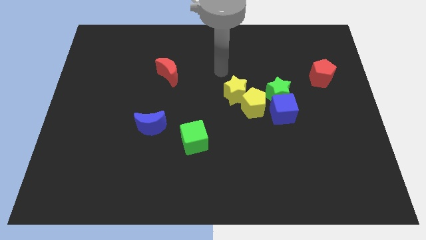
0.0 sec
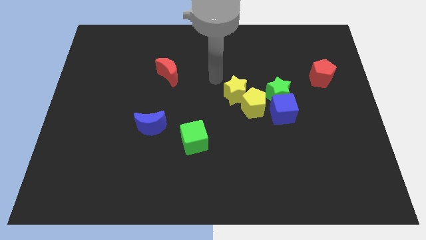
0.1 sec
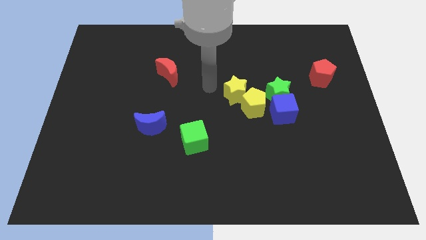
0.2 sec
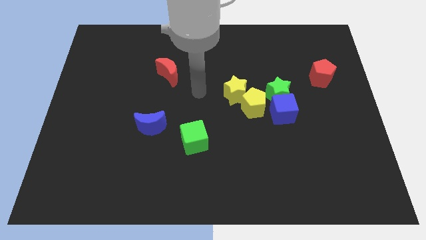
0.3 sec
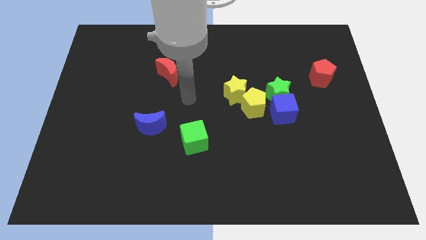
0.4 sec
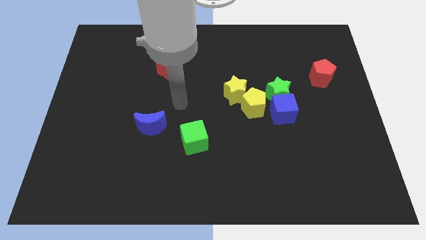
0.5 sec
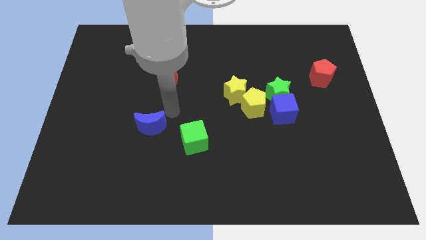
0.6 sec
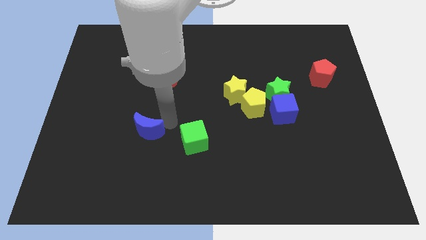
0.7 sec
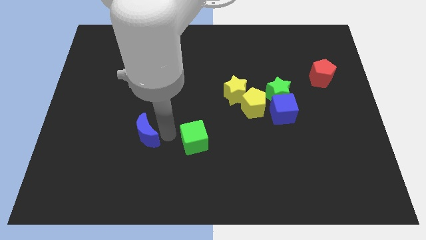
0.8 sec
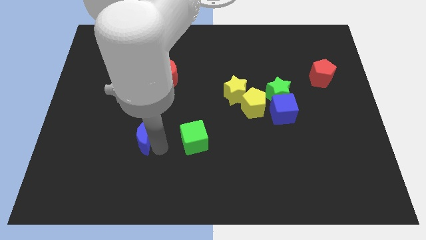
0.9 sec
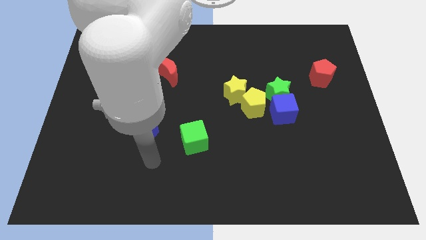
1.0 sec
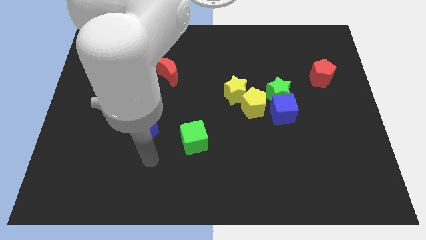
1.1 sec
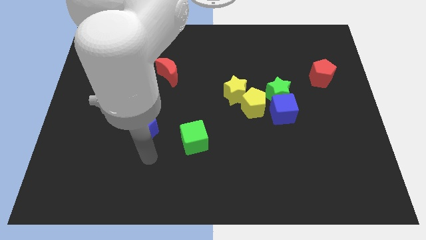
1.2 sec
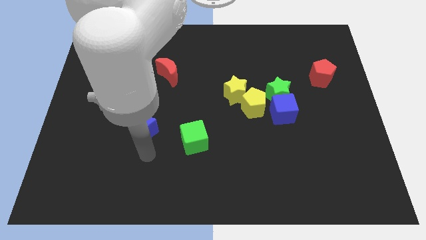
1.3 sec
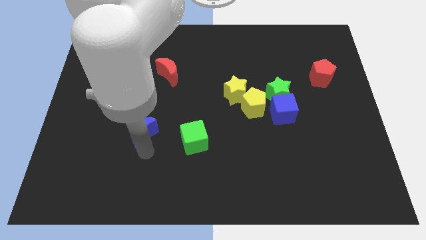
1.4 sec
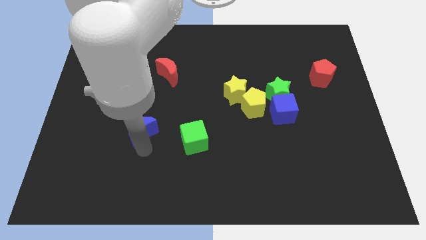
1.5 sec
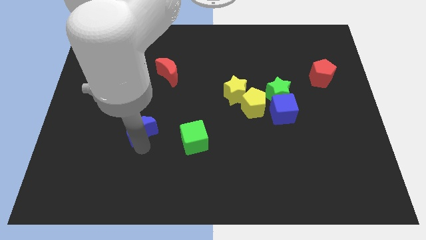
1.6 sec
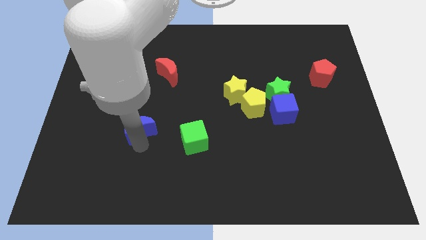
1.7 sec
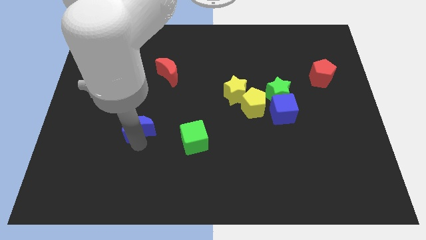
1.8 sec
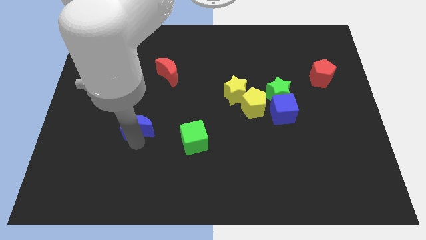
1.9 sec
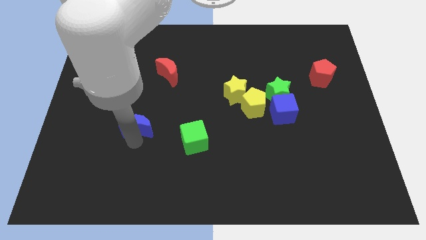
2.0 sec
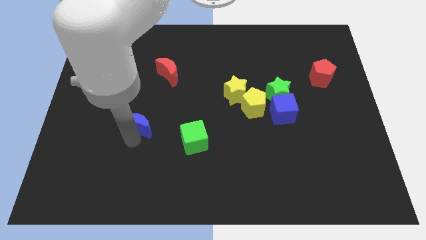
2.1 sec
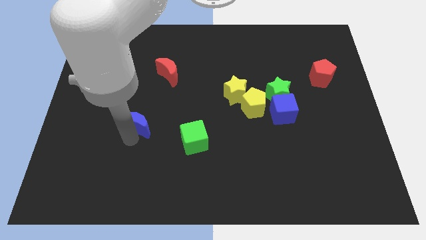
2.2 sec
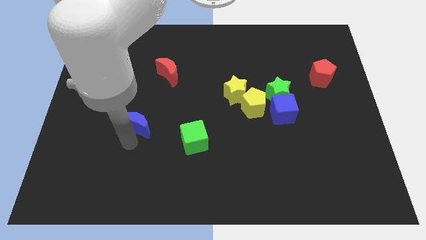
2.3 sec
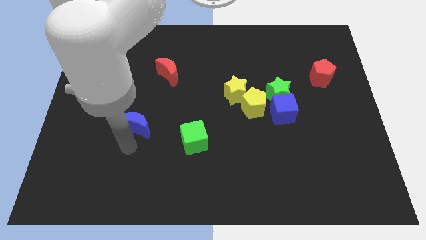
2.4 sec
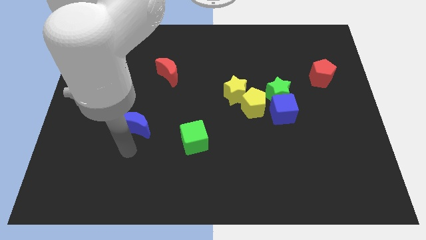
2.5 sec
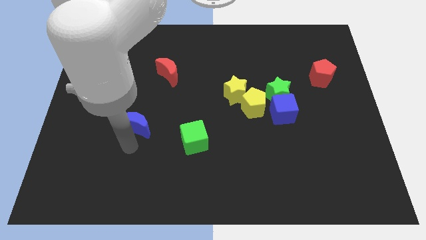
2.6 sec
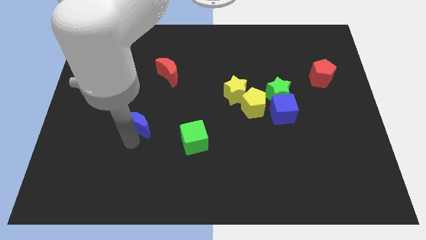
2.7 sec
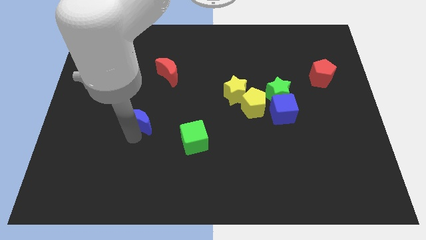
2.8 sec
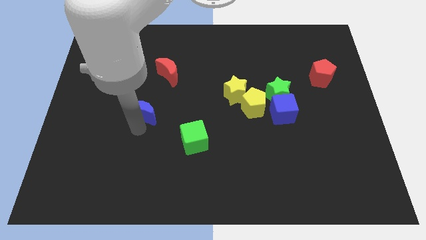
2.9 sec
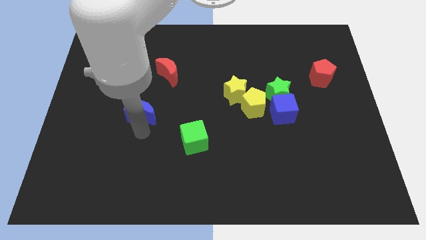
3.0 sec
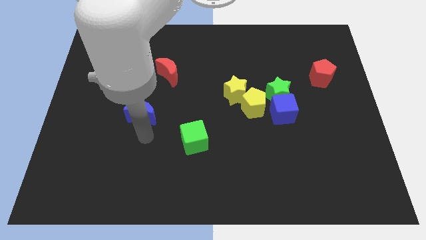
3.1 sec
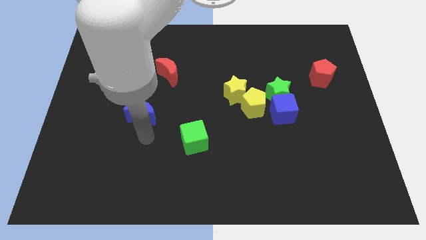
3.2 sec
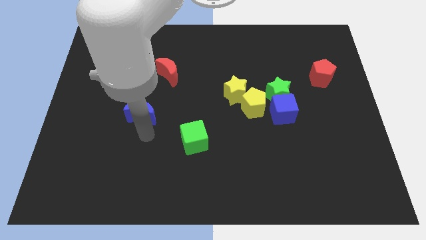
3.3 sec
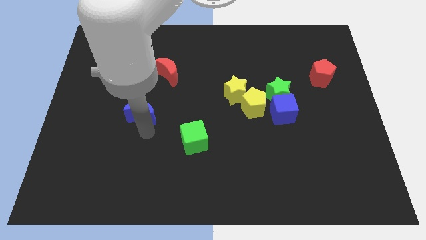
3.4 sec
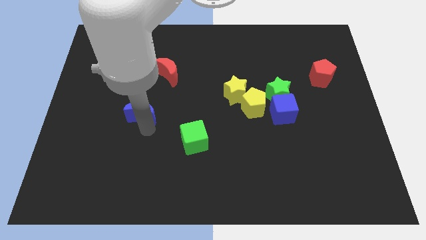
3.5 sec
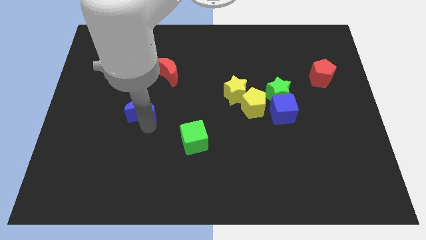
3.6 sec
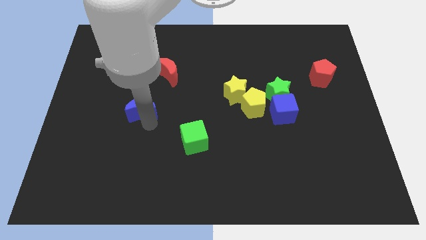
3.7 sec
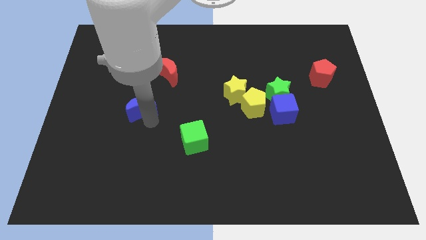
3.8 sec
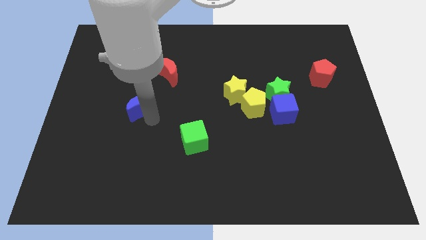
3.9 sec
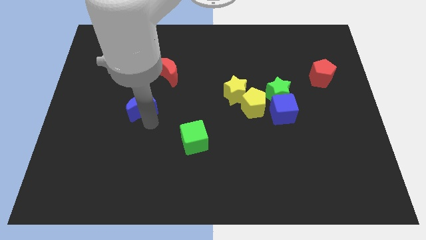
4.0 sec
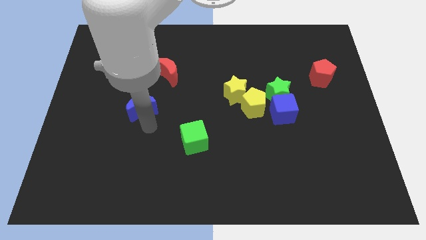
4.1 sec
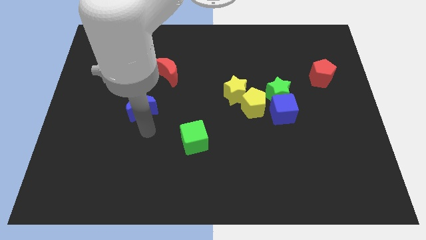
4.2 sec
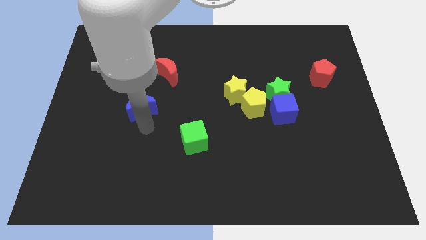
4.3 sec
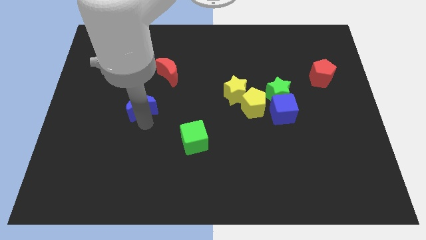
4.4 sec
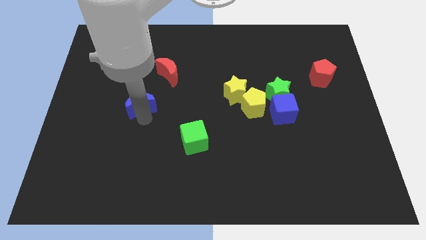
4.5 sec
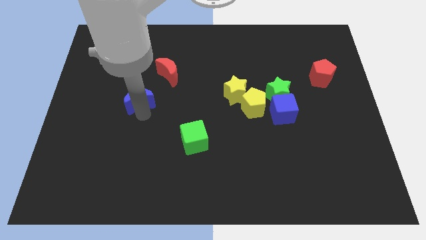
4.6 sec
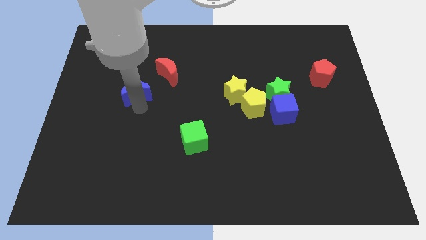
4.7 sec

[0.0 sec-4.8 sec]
slide the blue moon up a bit

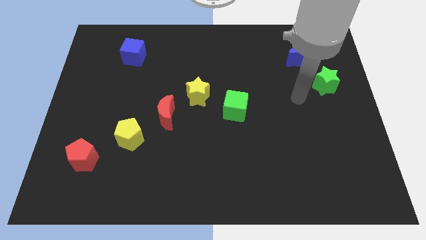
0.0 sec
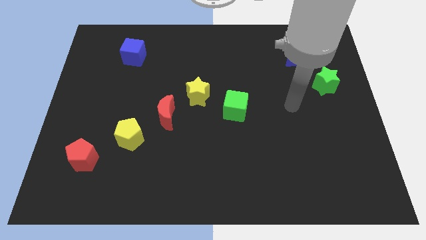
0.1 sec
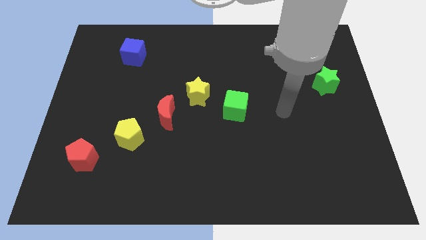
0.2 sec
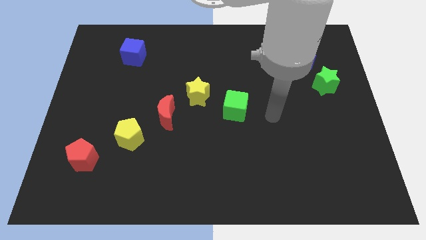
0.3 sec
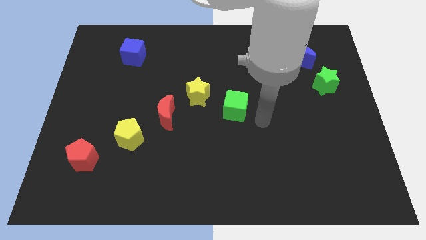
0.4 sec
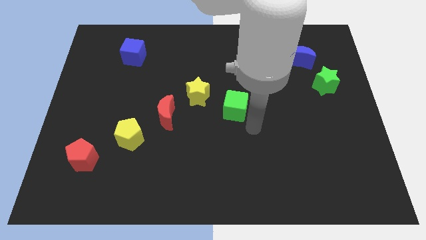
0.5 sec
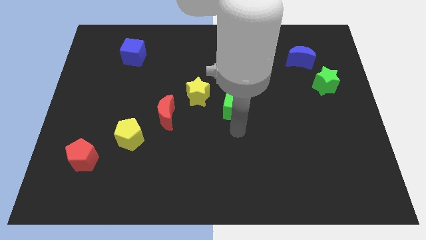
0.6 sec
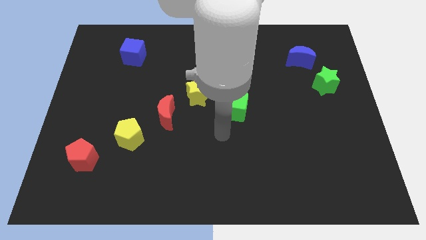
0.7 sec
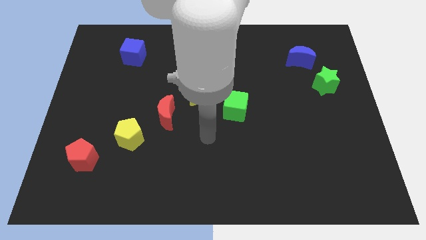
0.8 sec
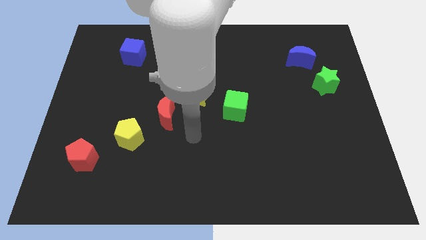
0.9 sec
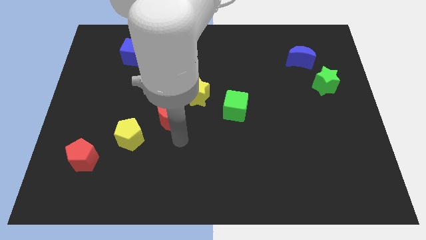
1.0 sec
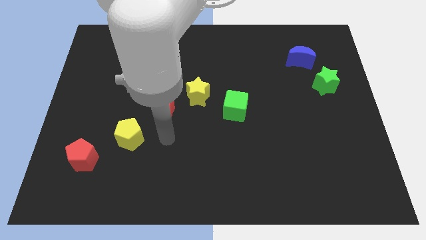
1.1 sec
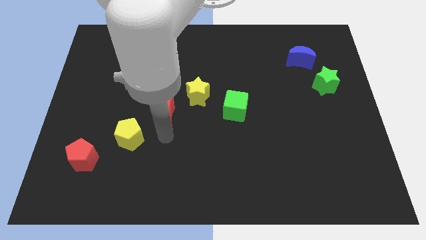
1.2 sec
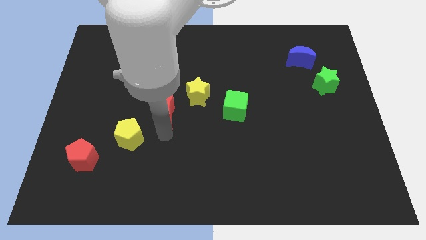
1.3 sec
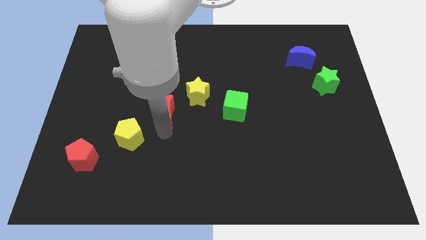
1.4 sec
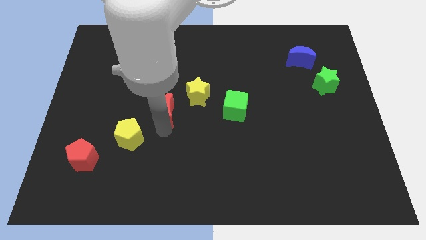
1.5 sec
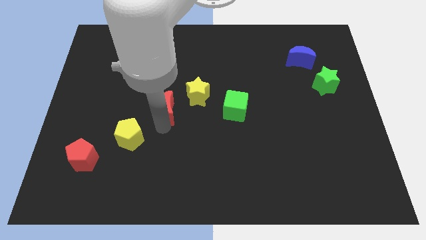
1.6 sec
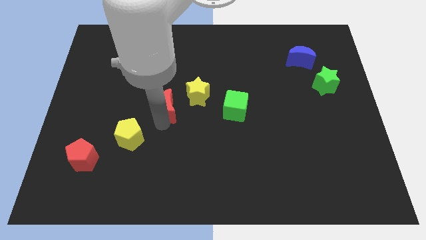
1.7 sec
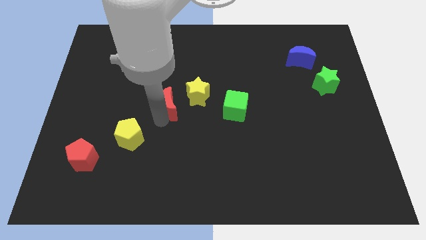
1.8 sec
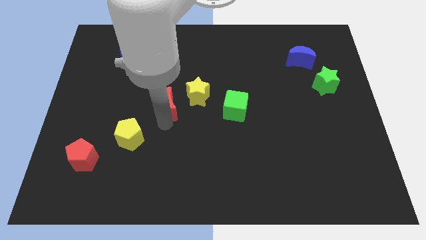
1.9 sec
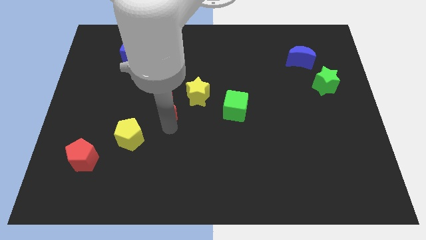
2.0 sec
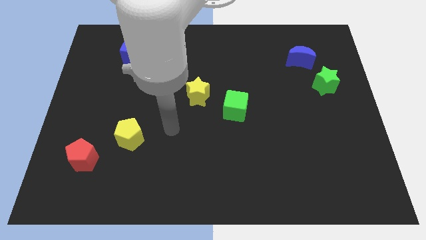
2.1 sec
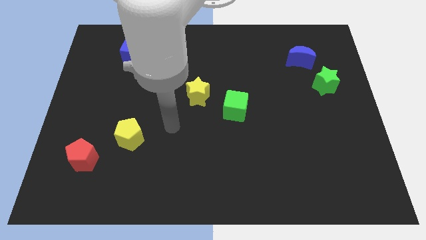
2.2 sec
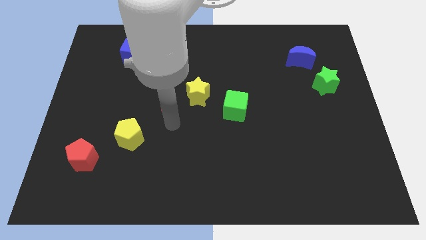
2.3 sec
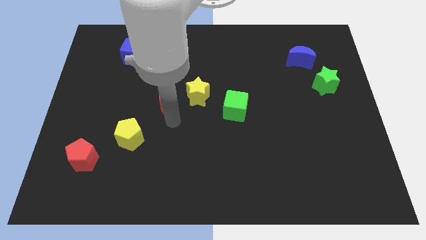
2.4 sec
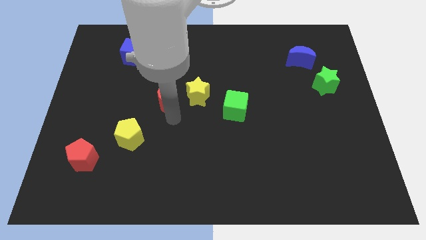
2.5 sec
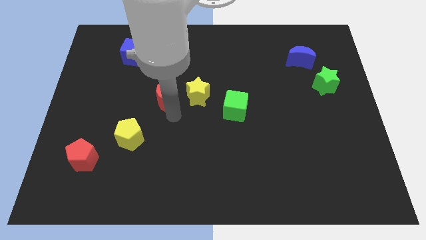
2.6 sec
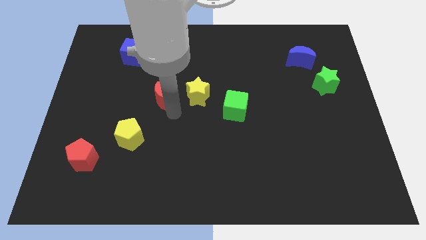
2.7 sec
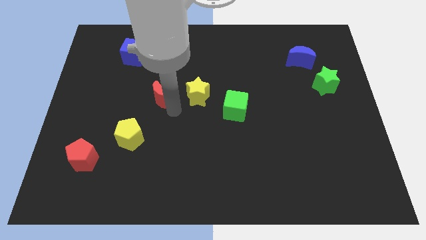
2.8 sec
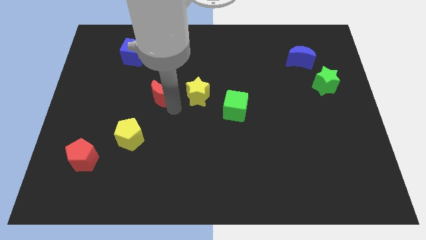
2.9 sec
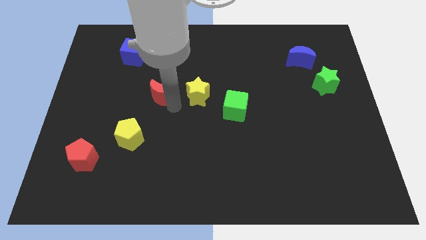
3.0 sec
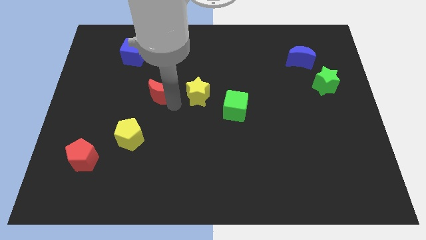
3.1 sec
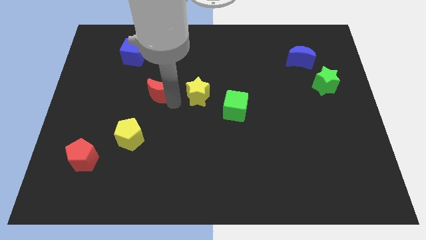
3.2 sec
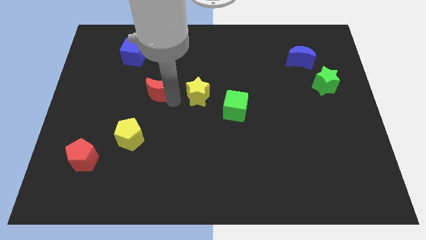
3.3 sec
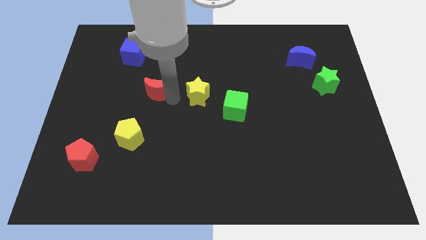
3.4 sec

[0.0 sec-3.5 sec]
move the red moon somewhat upwards
